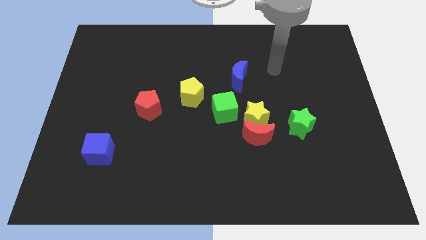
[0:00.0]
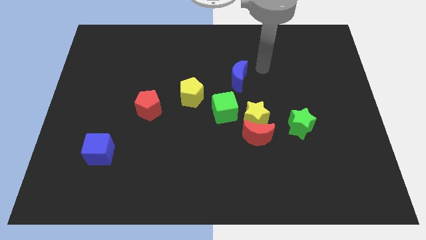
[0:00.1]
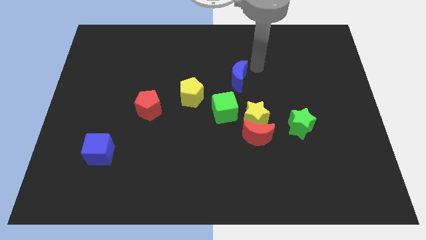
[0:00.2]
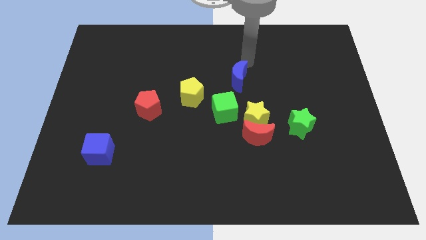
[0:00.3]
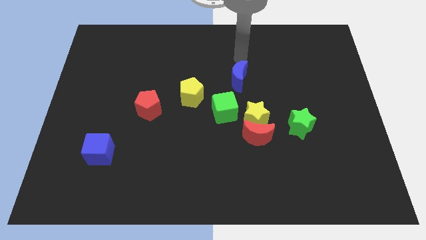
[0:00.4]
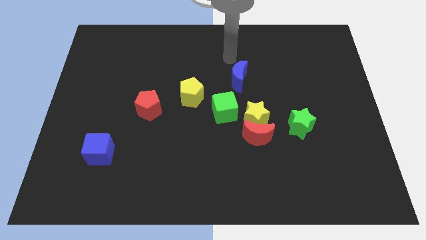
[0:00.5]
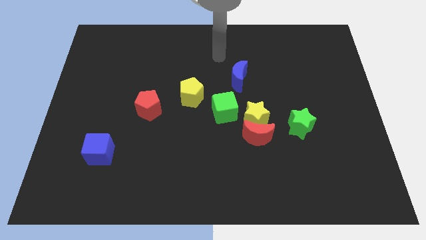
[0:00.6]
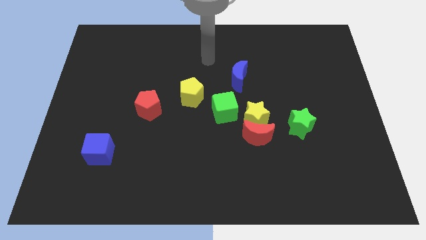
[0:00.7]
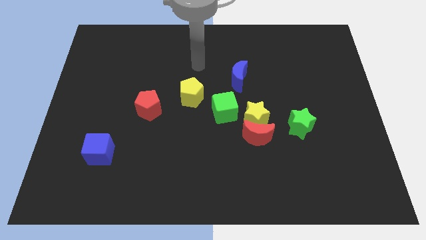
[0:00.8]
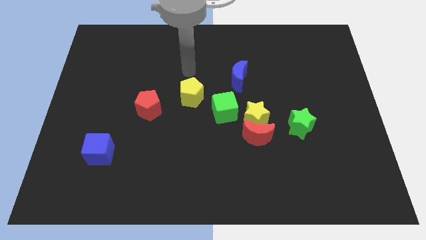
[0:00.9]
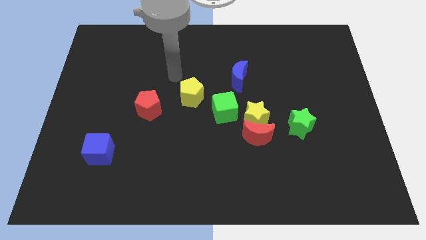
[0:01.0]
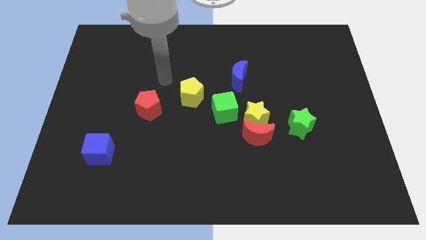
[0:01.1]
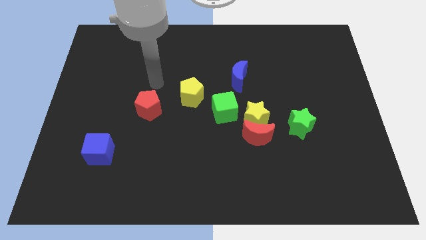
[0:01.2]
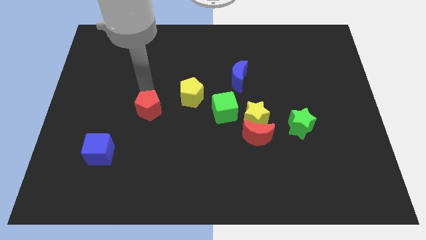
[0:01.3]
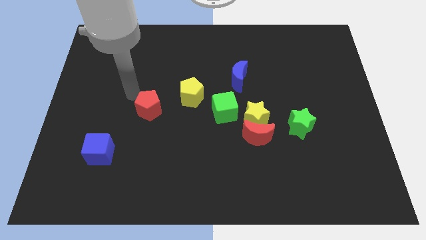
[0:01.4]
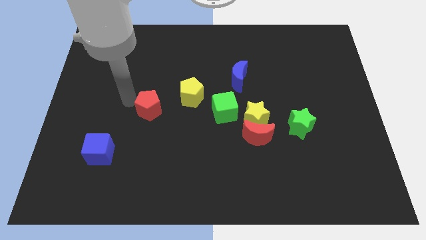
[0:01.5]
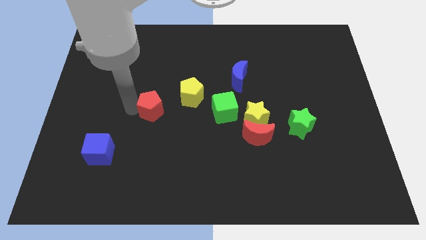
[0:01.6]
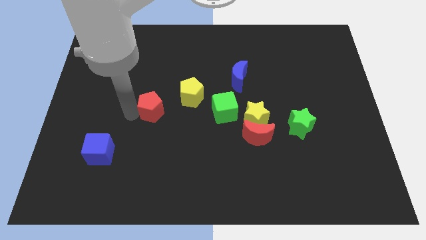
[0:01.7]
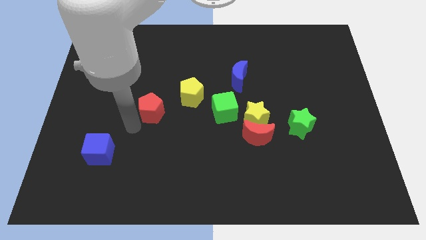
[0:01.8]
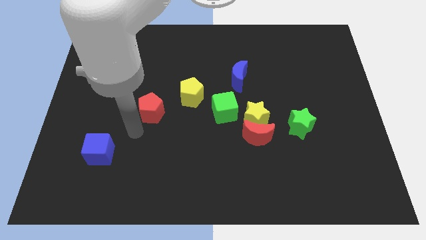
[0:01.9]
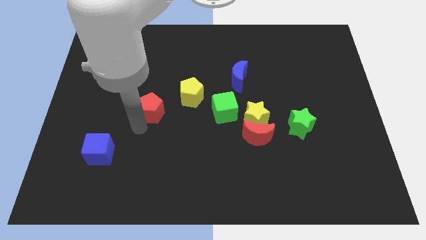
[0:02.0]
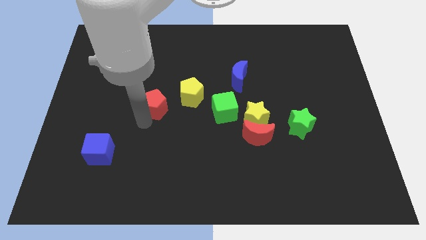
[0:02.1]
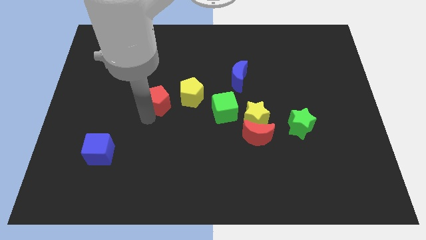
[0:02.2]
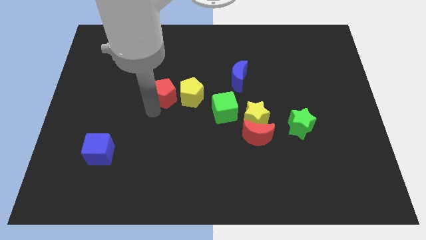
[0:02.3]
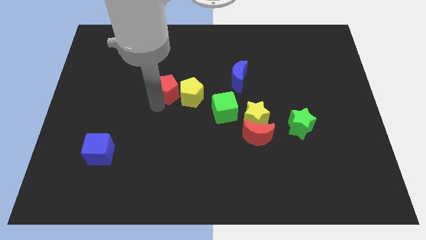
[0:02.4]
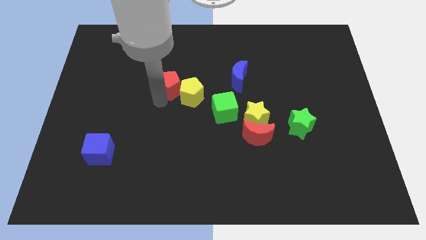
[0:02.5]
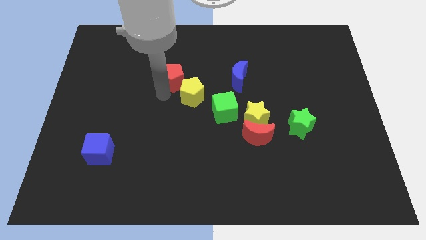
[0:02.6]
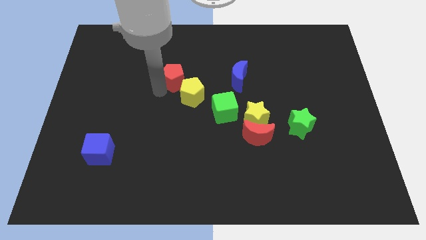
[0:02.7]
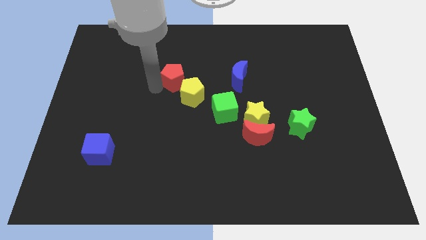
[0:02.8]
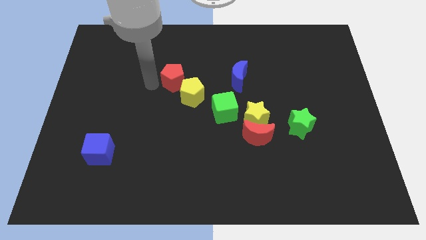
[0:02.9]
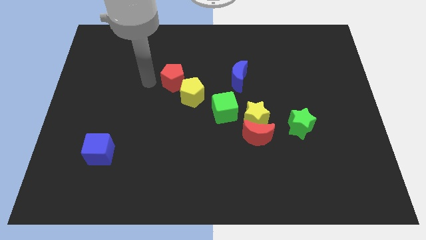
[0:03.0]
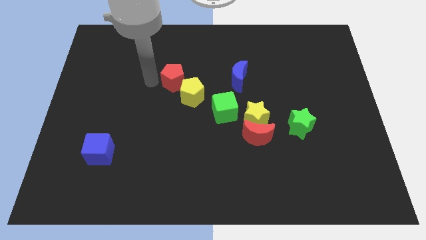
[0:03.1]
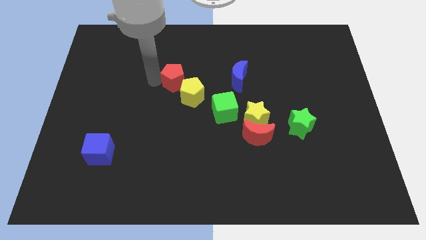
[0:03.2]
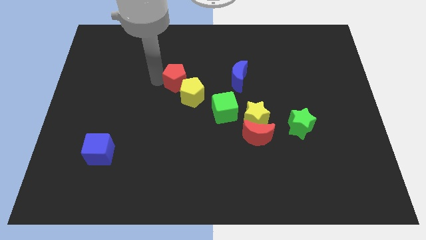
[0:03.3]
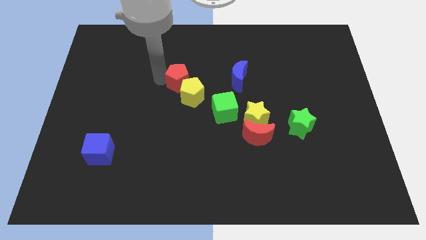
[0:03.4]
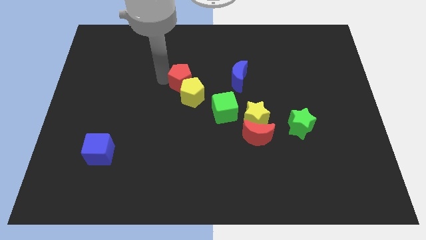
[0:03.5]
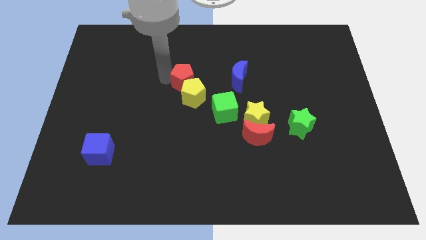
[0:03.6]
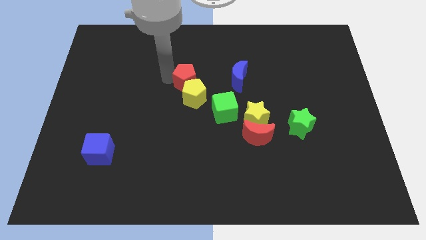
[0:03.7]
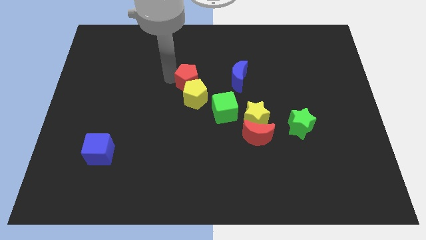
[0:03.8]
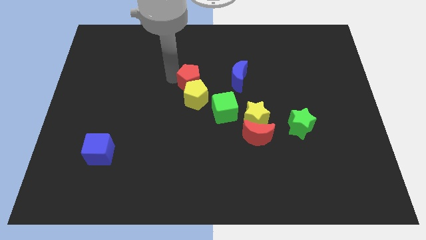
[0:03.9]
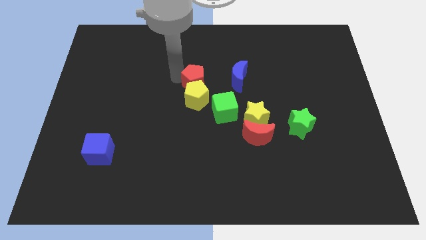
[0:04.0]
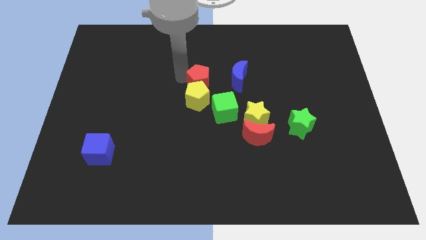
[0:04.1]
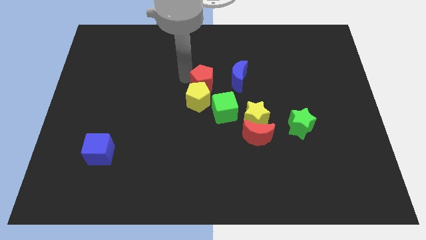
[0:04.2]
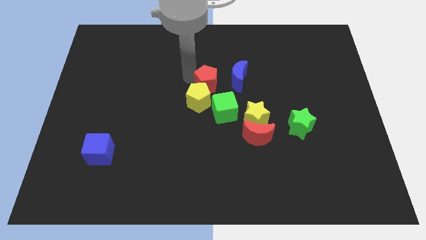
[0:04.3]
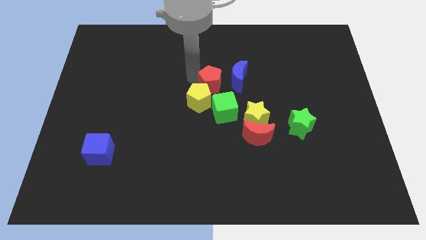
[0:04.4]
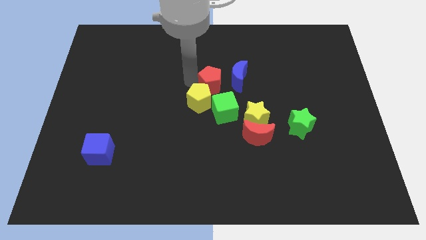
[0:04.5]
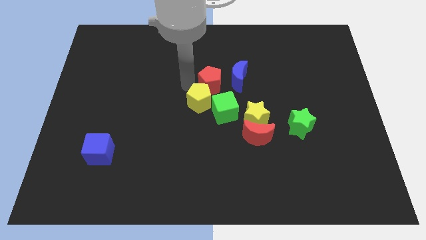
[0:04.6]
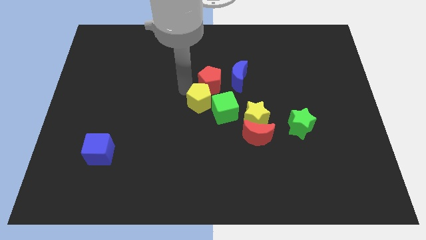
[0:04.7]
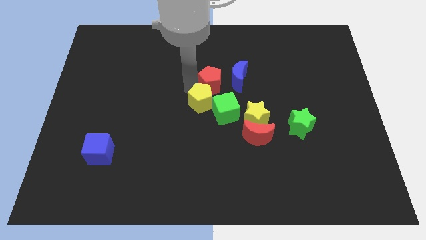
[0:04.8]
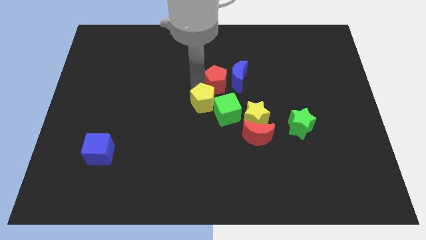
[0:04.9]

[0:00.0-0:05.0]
push the red pentagon next to the blue moon

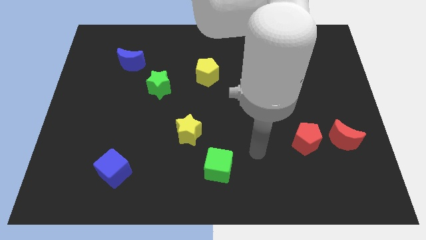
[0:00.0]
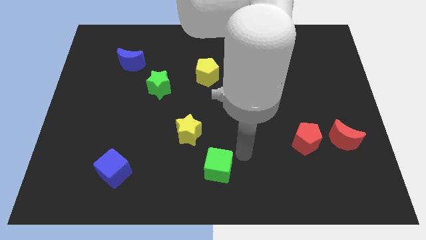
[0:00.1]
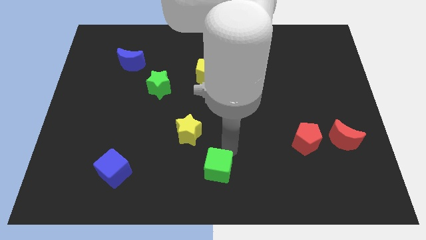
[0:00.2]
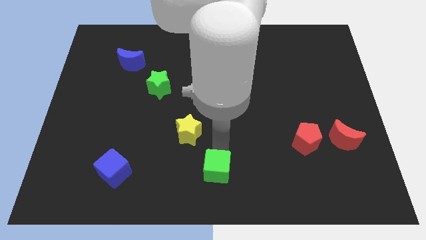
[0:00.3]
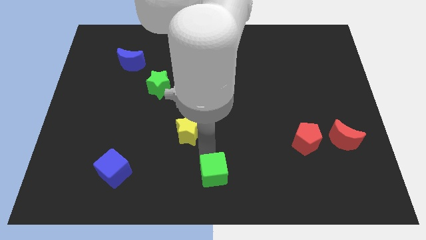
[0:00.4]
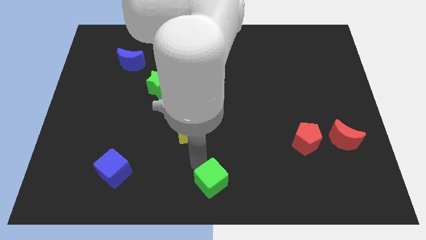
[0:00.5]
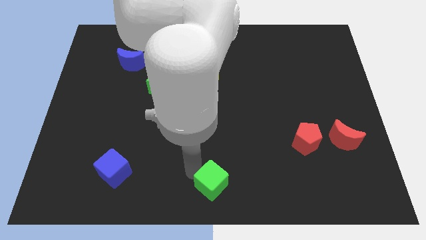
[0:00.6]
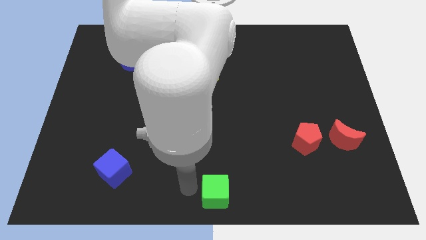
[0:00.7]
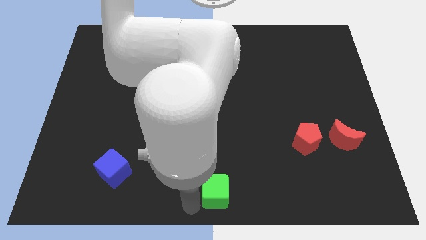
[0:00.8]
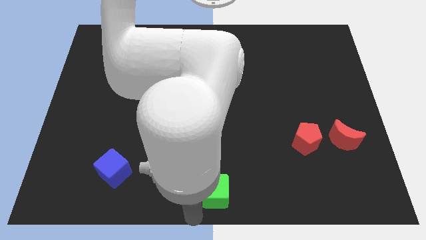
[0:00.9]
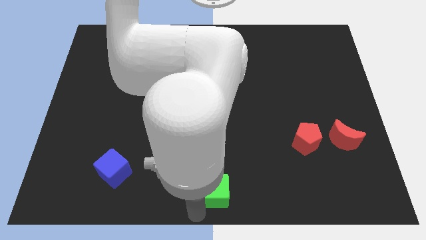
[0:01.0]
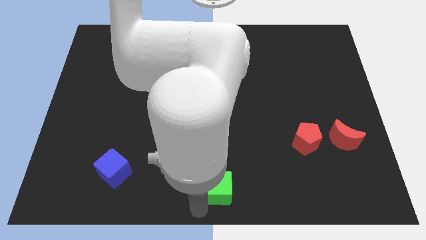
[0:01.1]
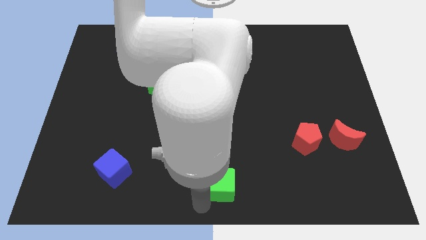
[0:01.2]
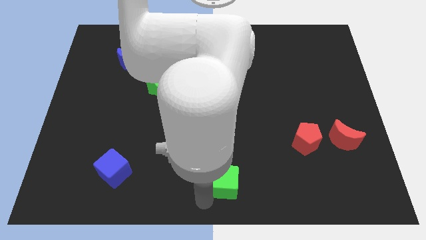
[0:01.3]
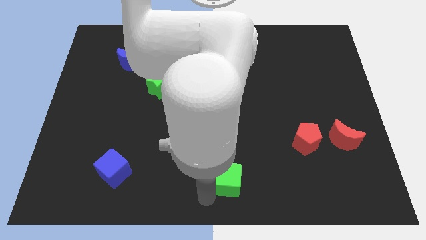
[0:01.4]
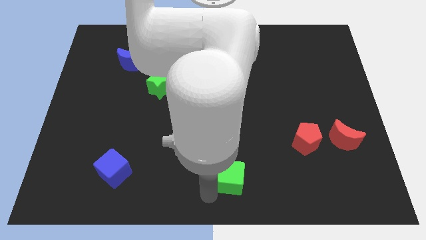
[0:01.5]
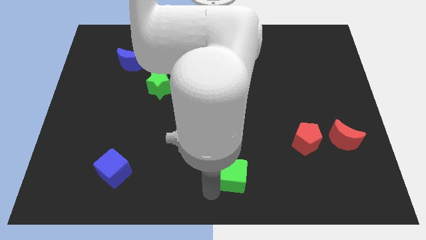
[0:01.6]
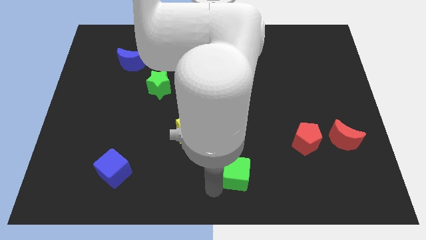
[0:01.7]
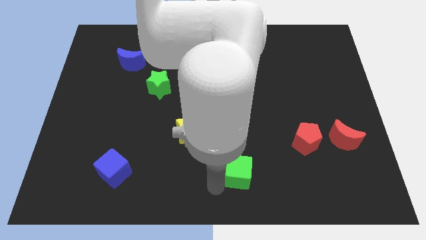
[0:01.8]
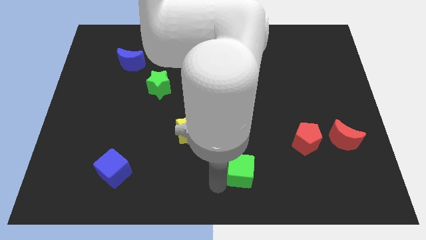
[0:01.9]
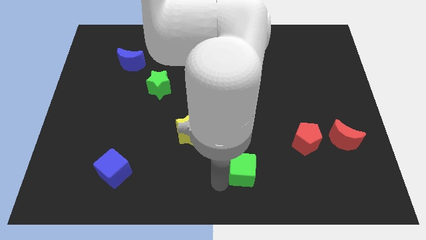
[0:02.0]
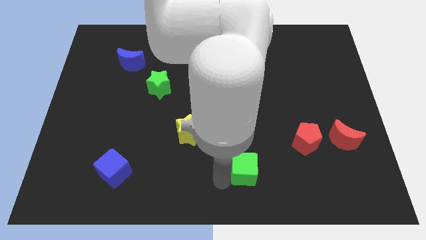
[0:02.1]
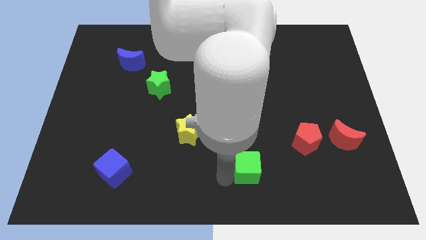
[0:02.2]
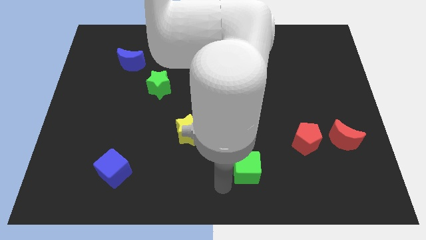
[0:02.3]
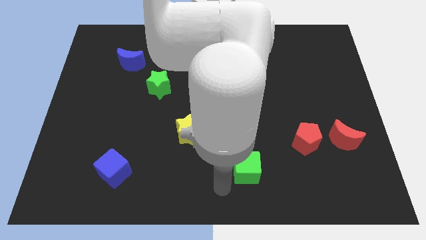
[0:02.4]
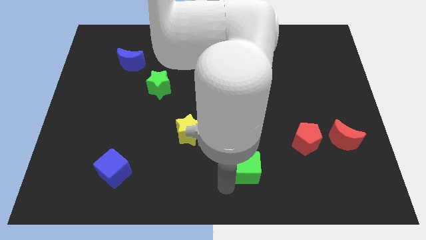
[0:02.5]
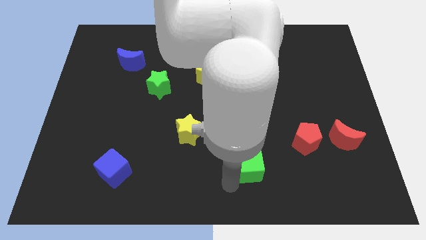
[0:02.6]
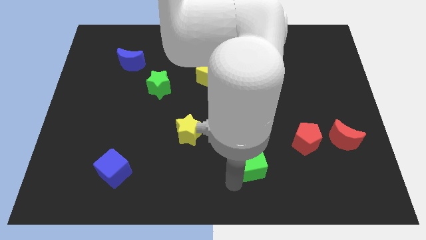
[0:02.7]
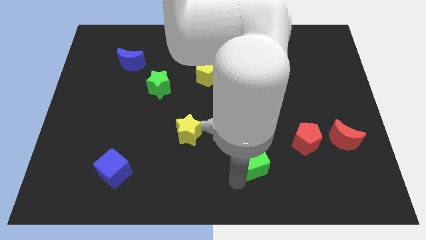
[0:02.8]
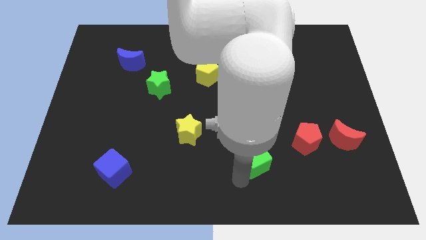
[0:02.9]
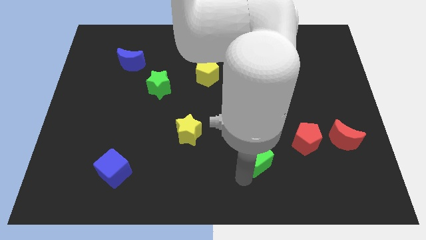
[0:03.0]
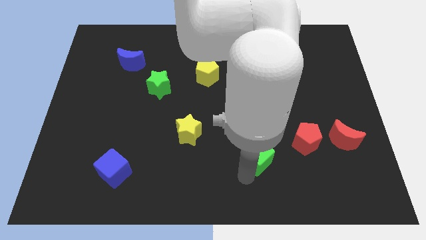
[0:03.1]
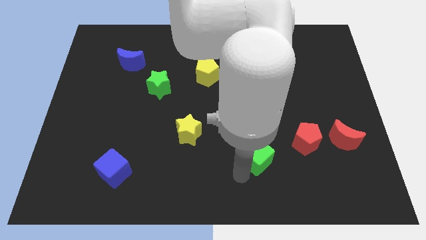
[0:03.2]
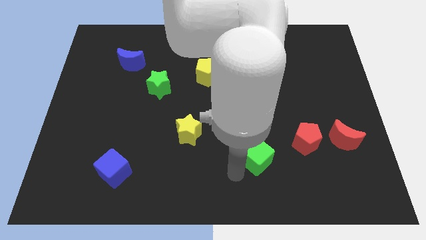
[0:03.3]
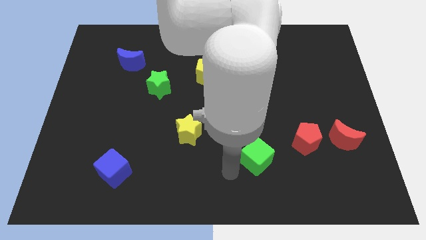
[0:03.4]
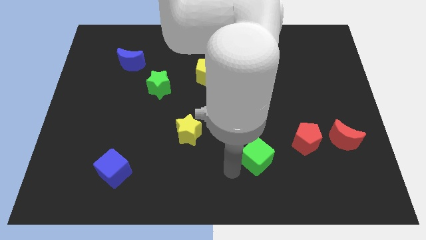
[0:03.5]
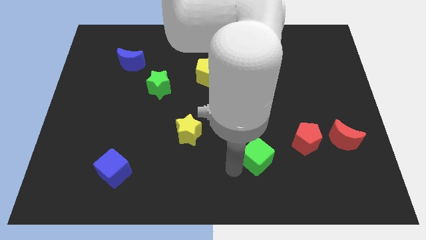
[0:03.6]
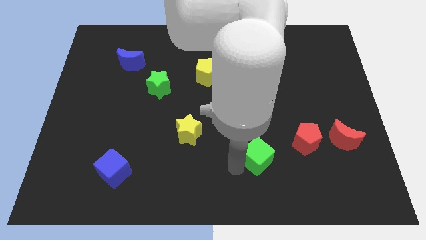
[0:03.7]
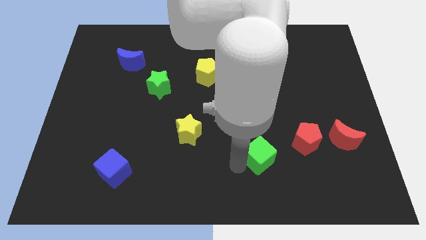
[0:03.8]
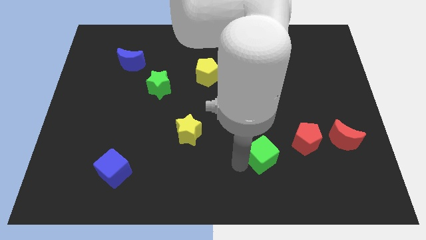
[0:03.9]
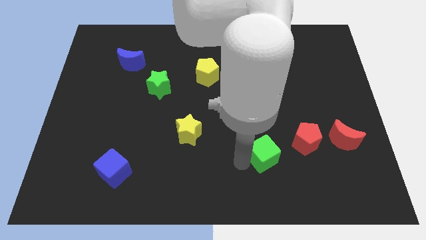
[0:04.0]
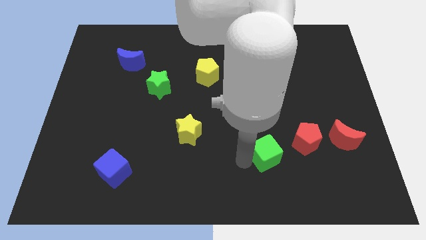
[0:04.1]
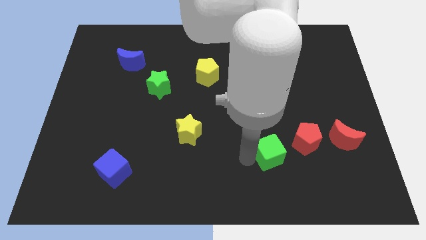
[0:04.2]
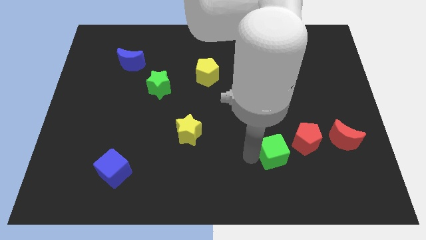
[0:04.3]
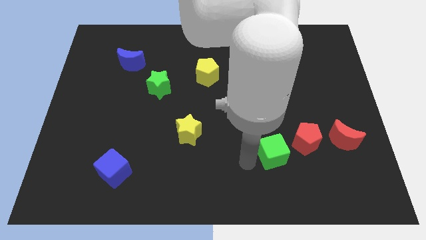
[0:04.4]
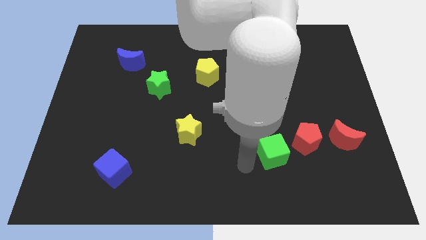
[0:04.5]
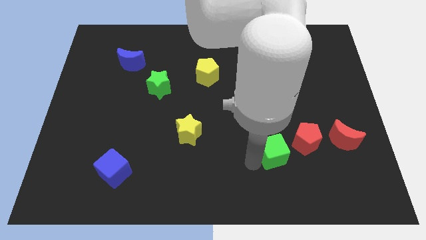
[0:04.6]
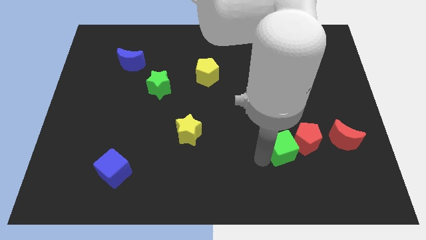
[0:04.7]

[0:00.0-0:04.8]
move the green cube close to the red pentagon
